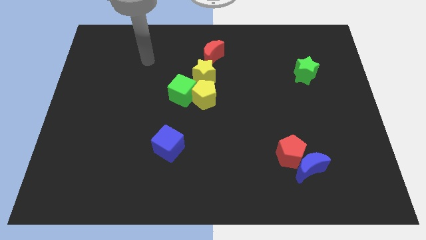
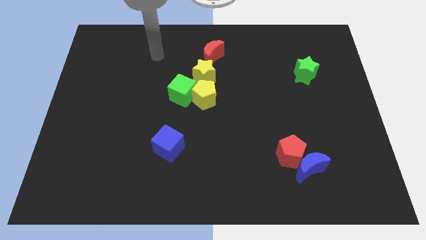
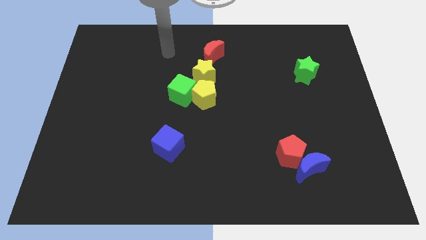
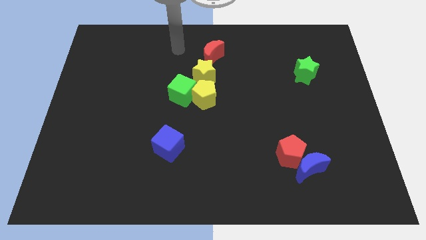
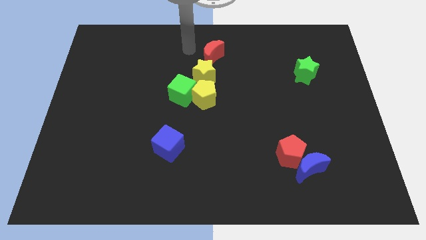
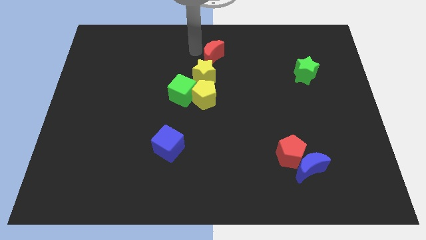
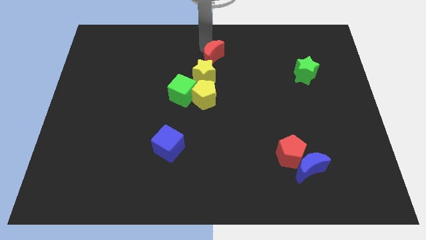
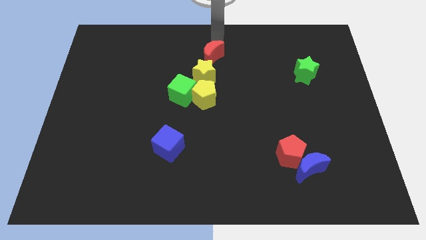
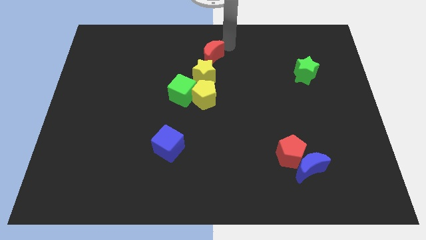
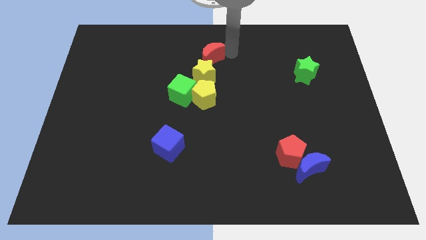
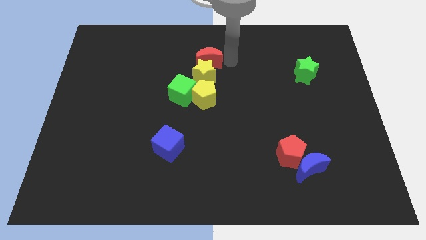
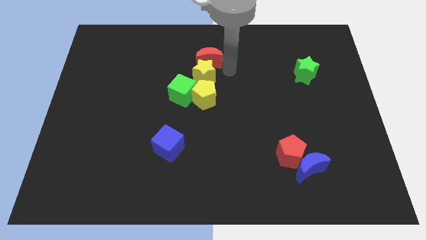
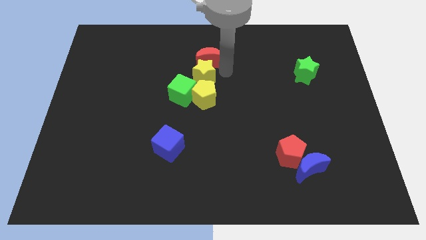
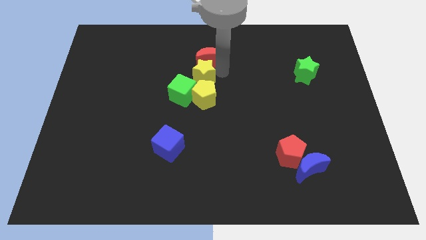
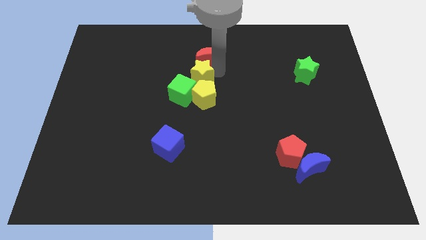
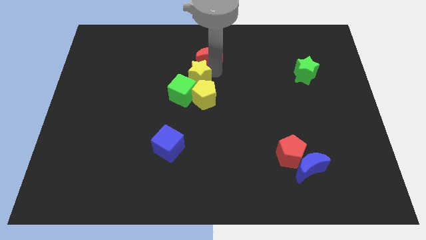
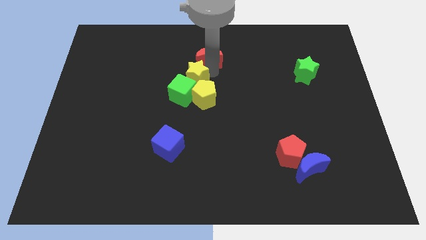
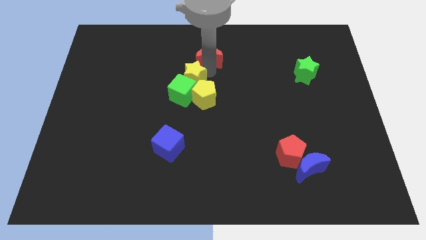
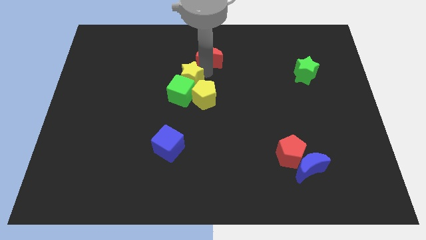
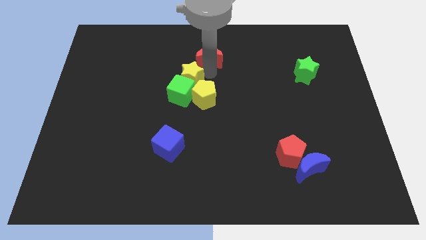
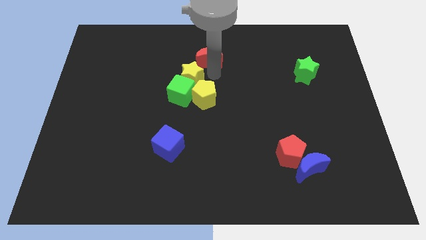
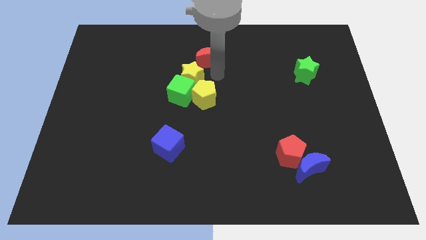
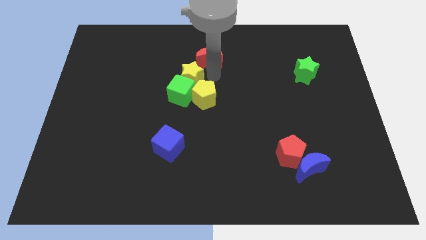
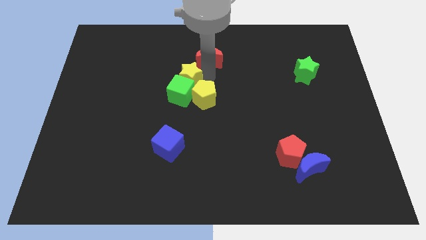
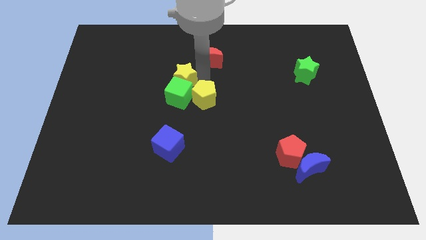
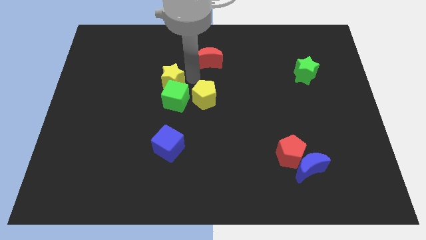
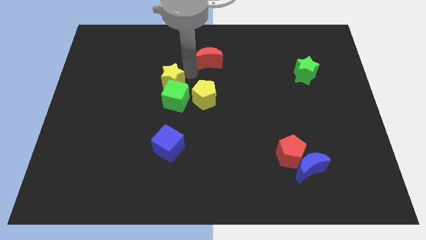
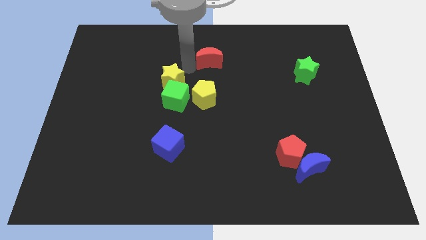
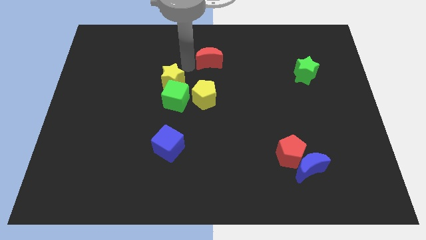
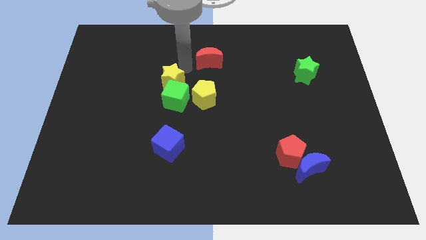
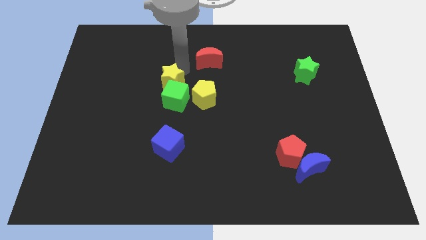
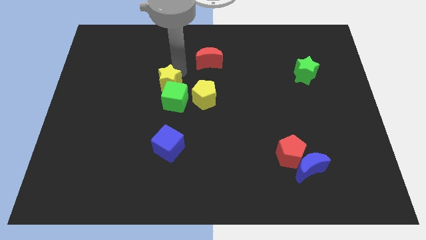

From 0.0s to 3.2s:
slightly push the yellow star diagonally down and to the left

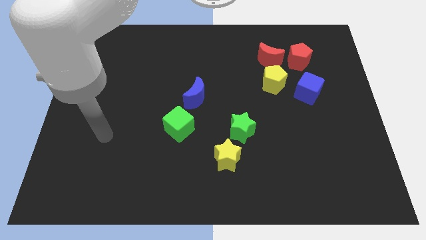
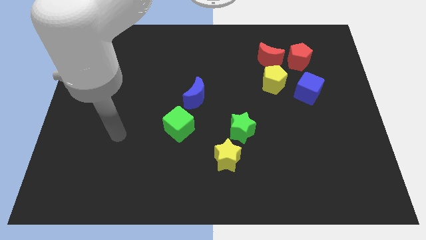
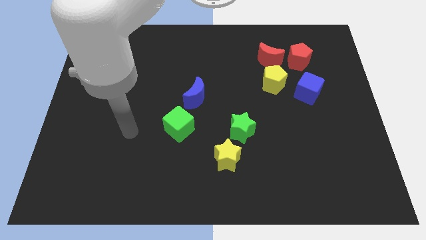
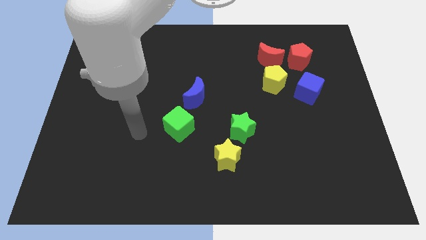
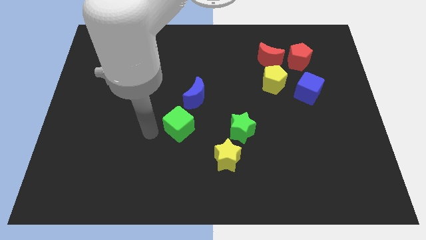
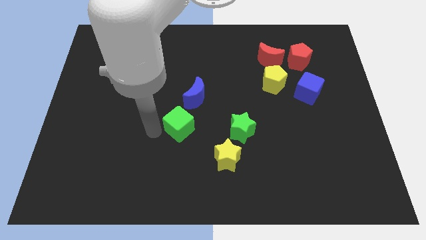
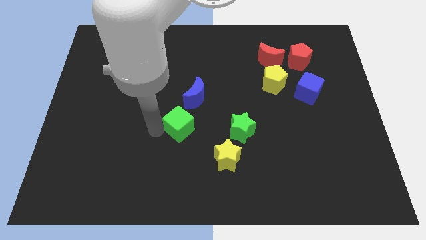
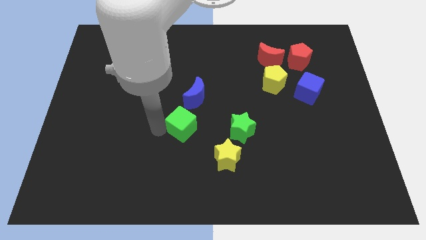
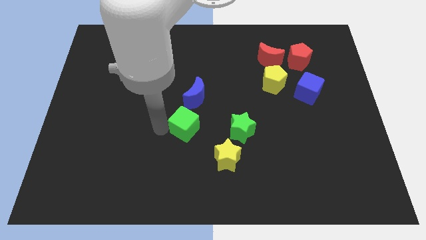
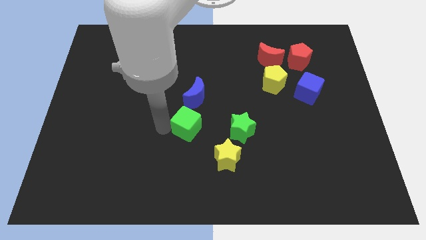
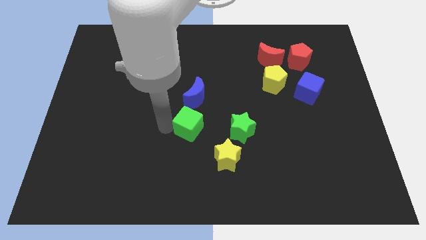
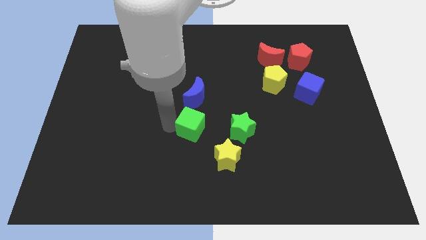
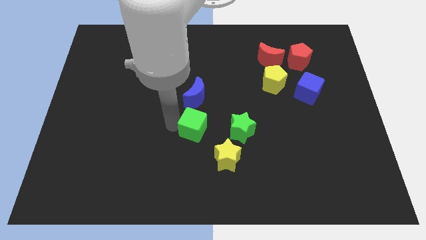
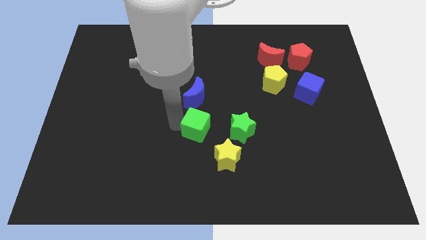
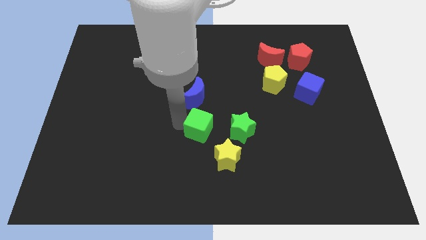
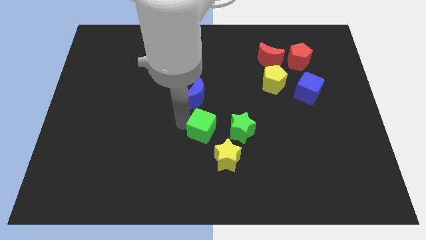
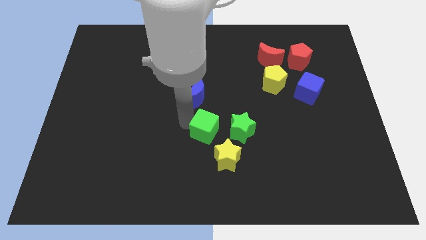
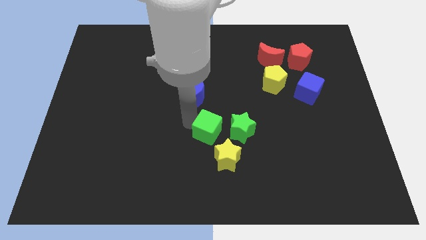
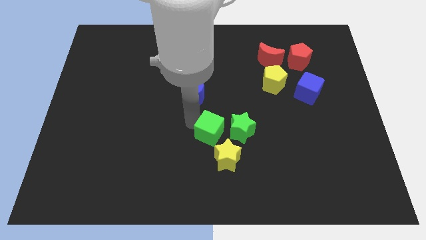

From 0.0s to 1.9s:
push the green cube right slightly

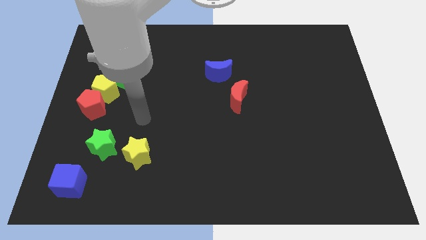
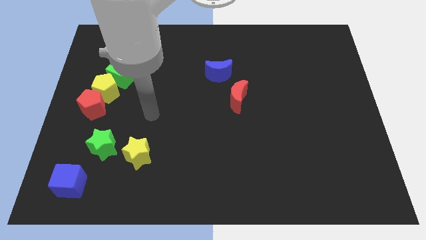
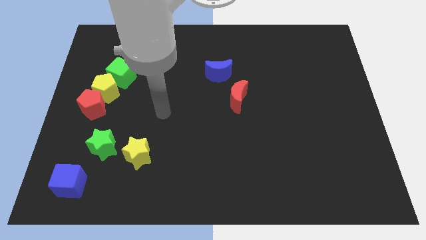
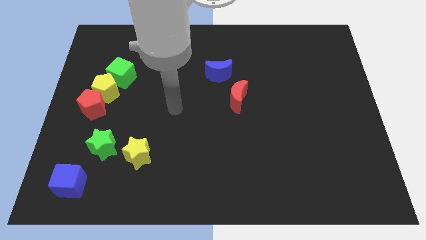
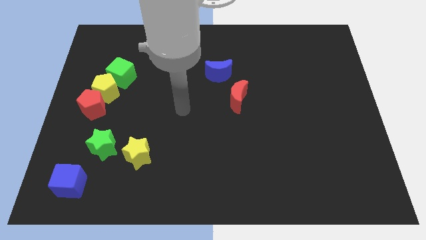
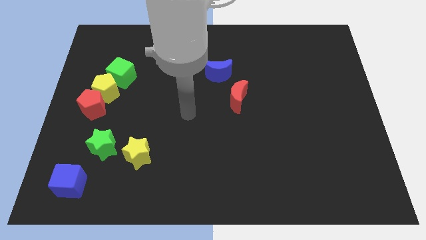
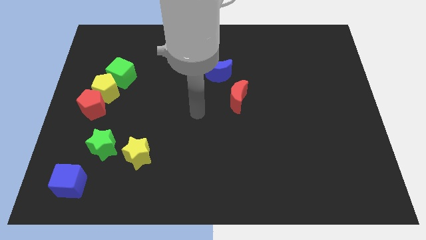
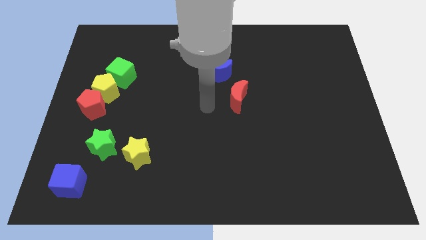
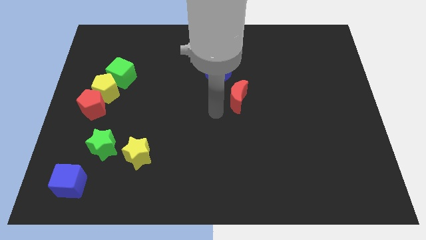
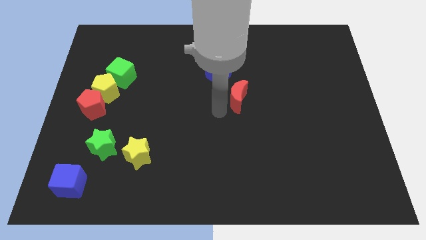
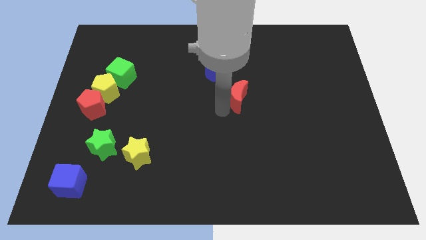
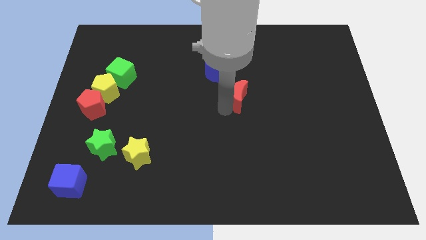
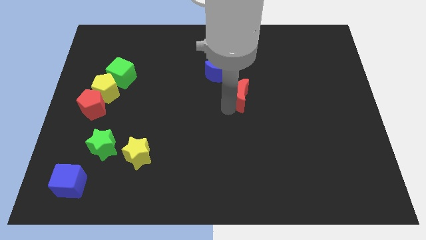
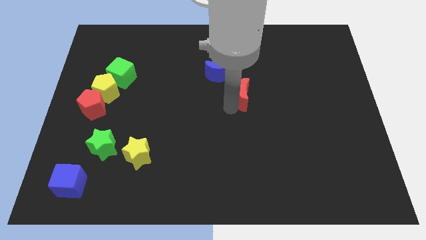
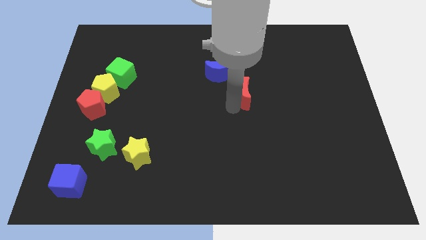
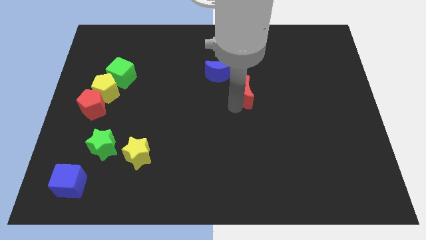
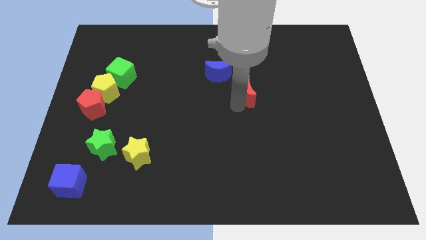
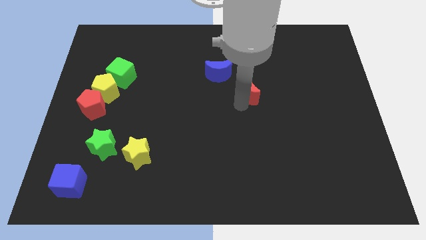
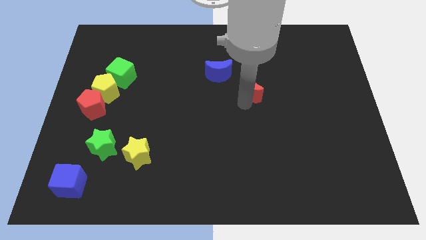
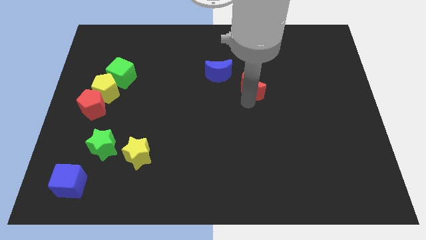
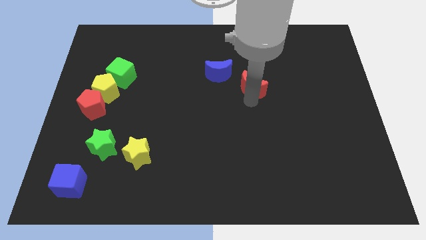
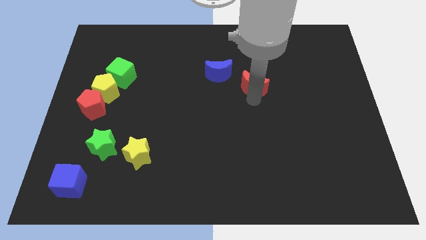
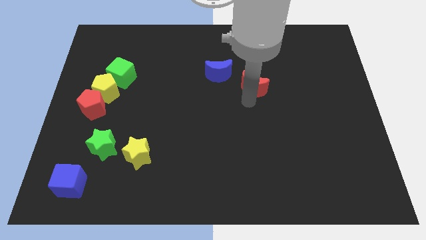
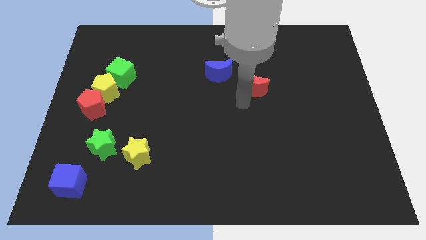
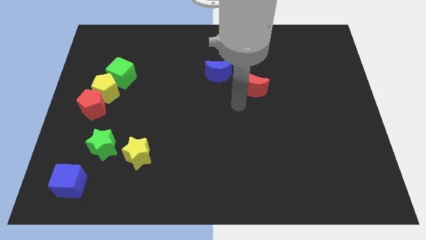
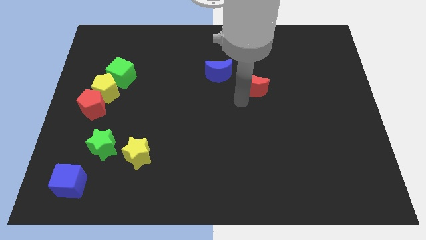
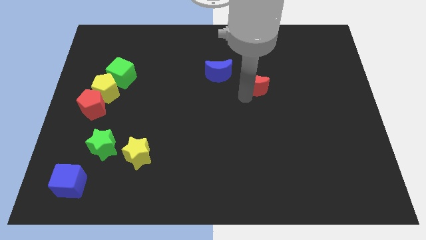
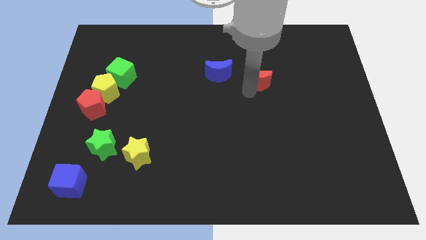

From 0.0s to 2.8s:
push the red moon up and to the right diagonally a little bit
